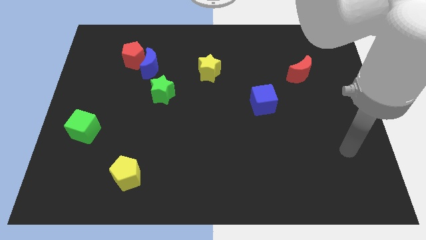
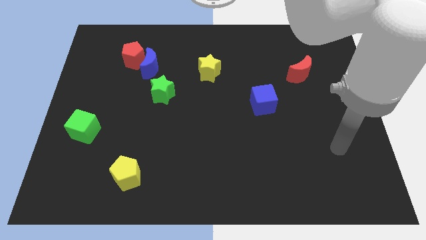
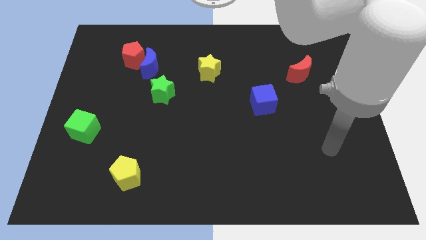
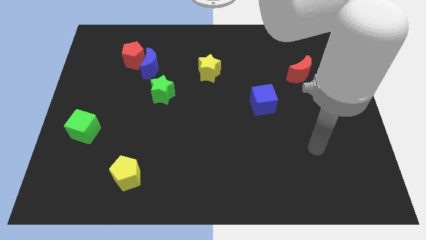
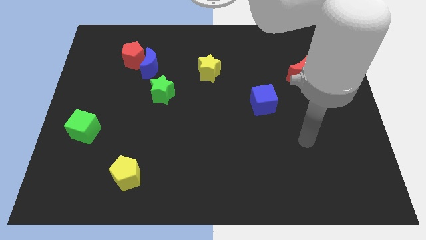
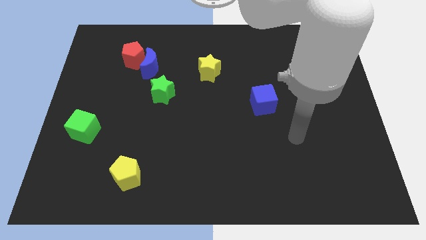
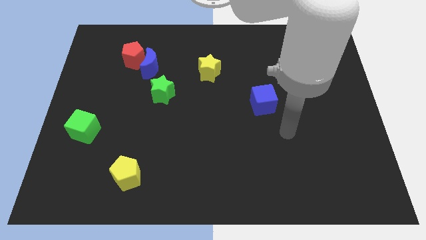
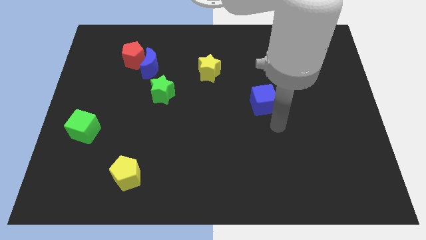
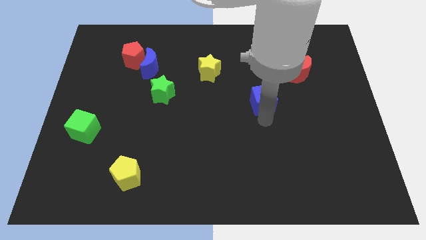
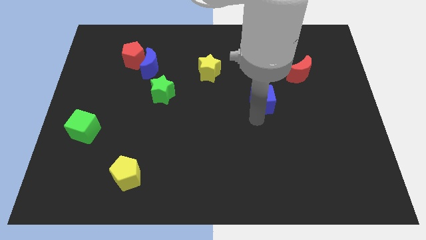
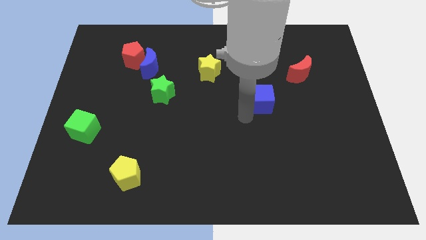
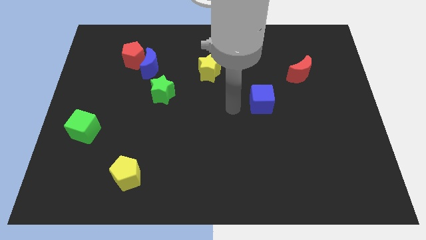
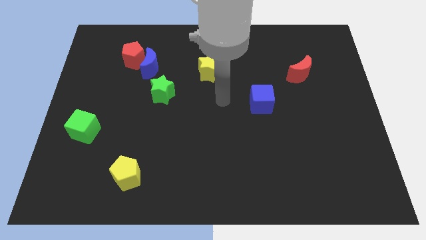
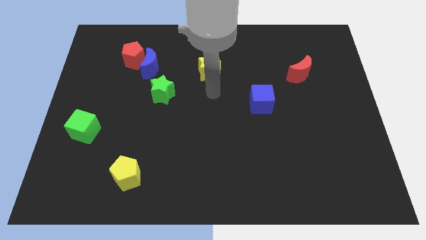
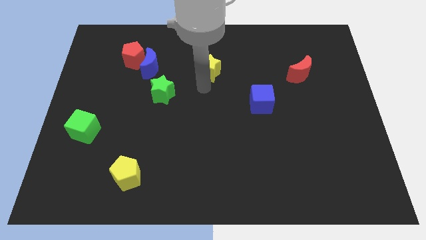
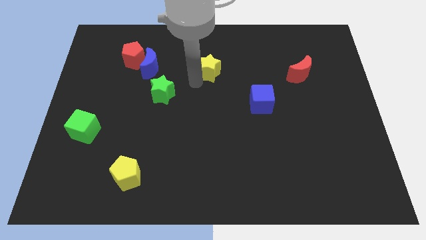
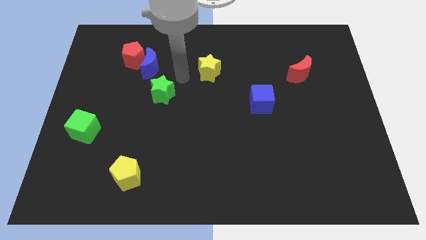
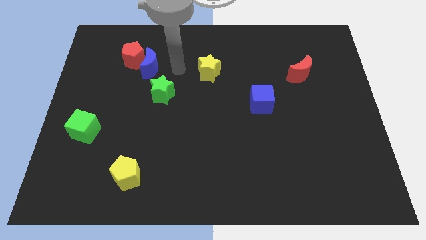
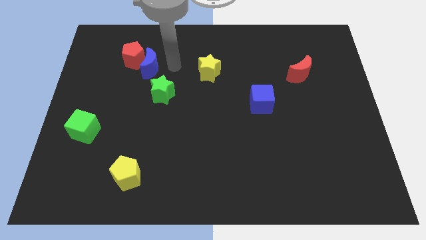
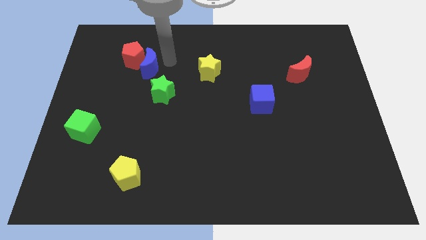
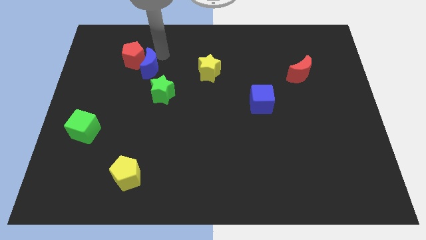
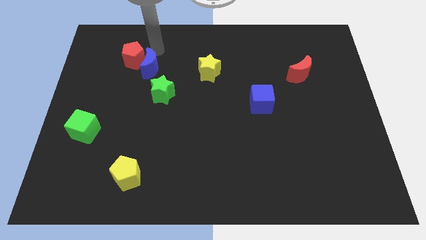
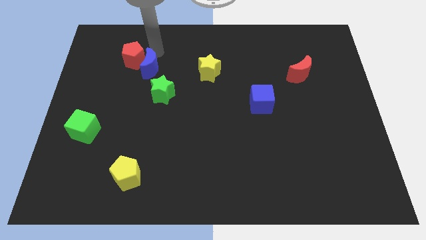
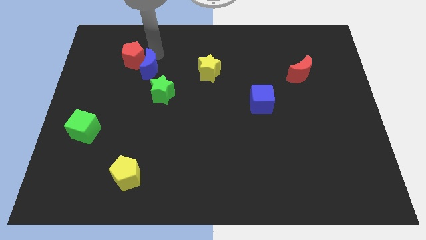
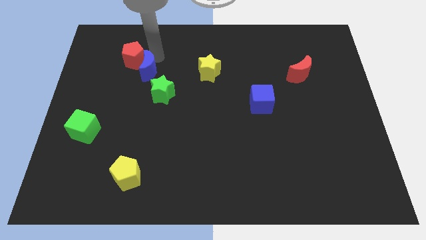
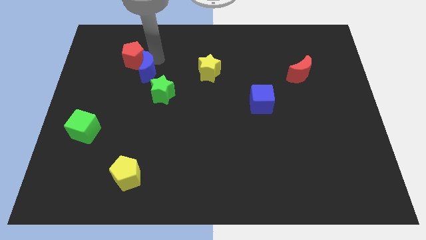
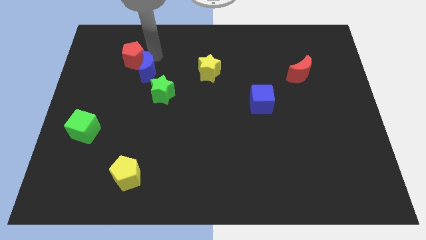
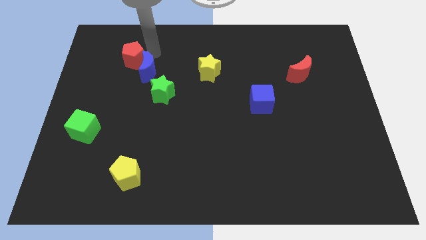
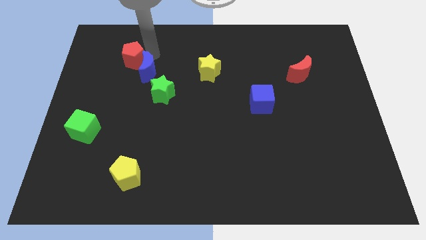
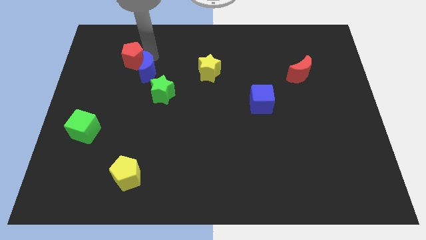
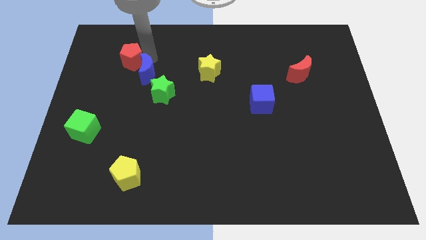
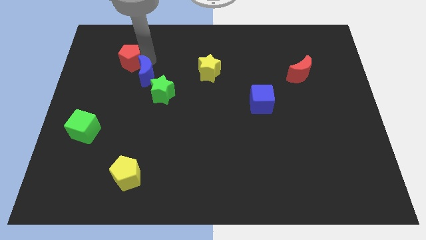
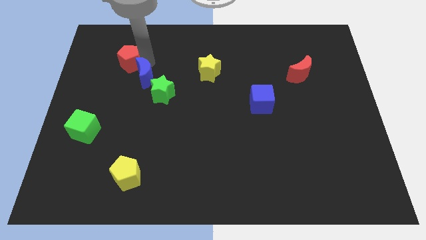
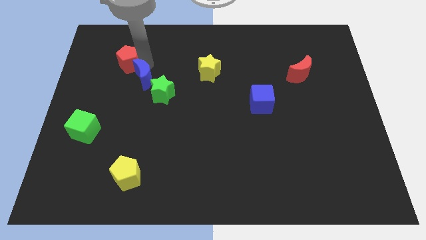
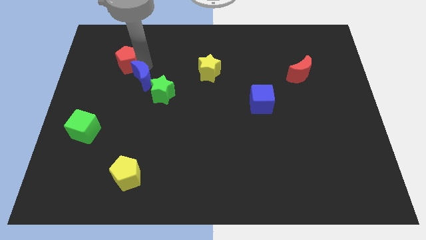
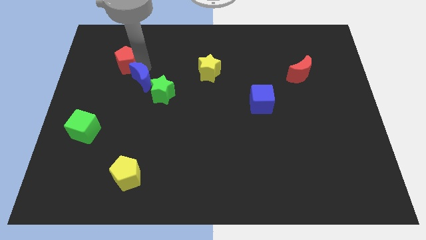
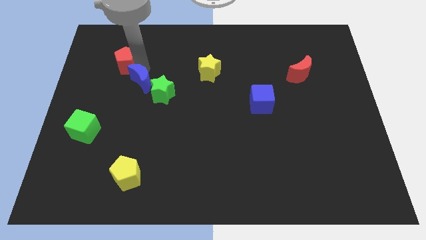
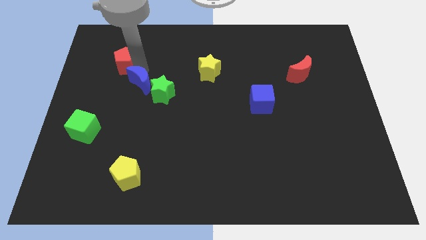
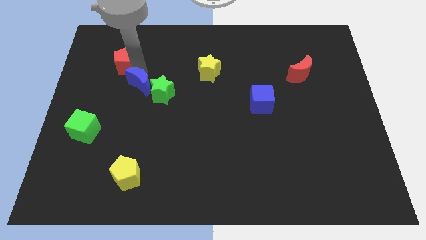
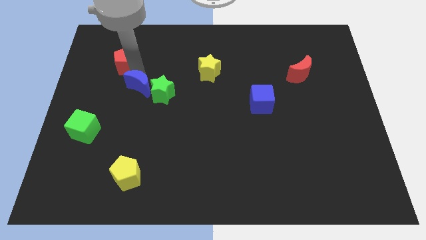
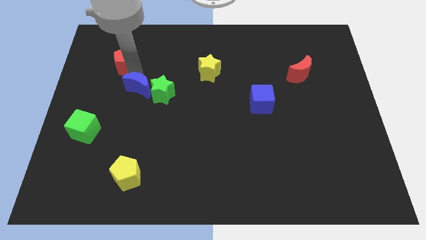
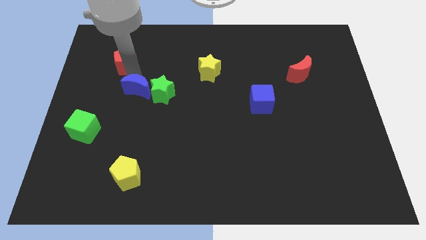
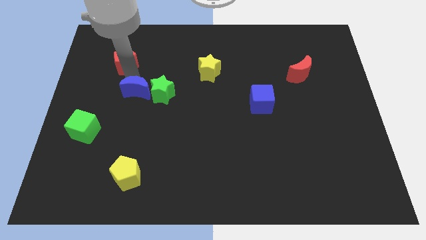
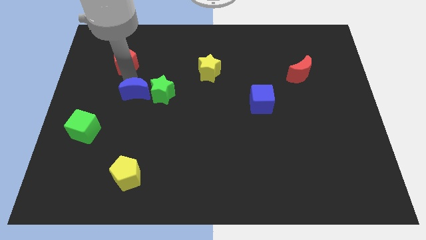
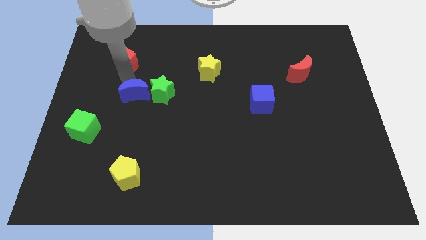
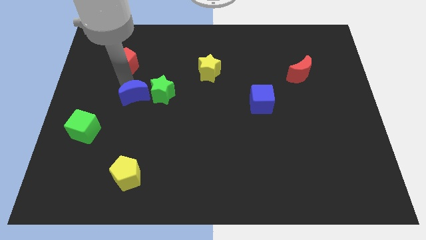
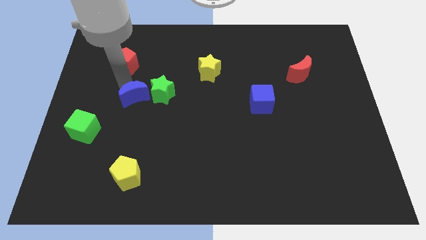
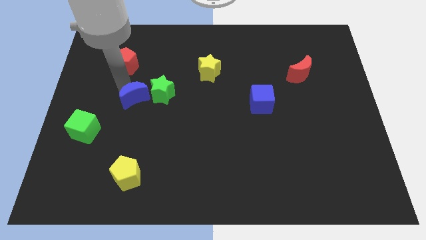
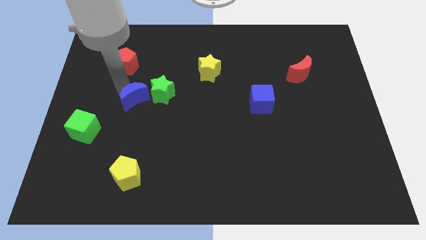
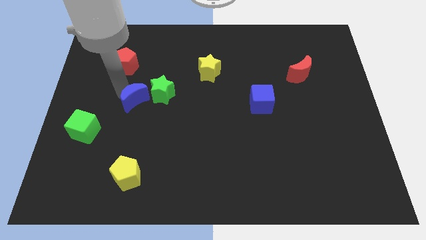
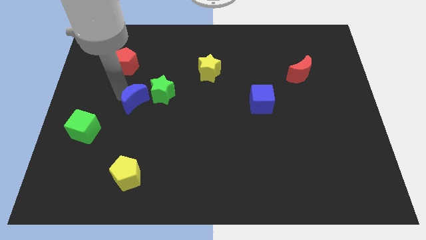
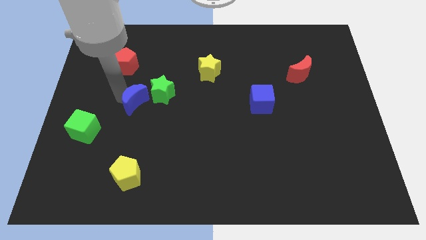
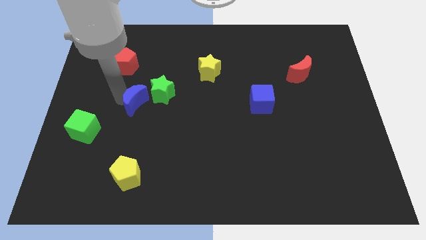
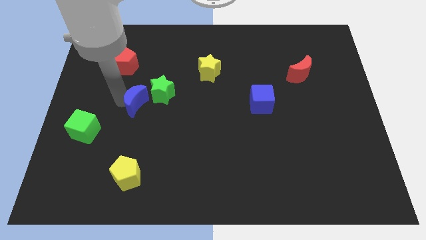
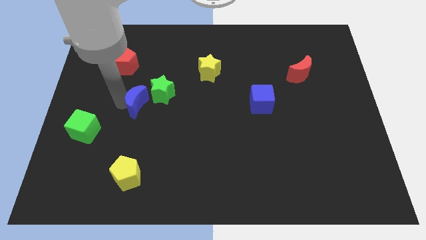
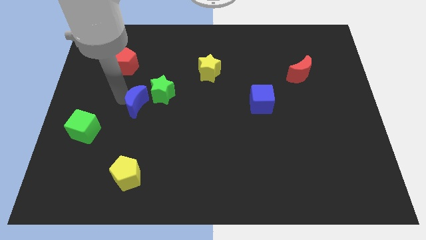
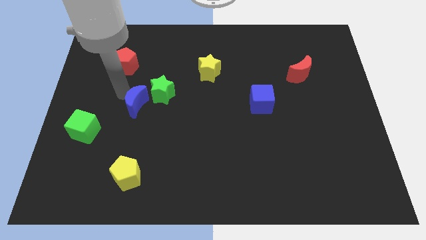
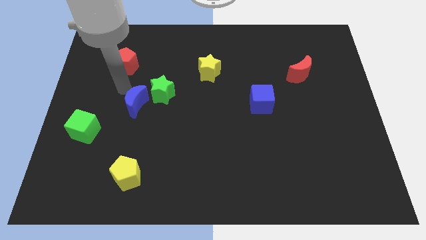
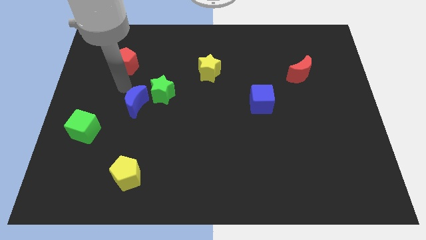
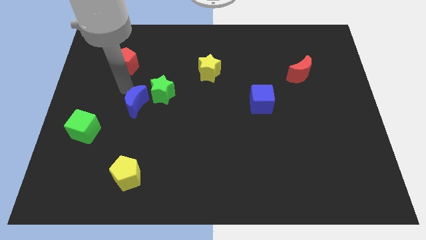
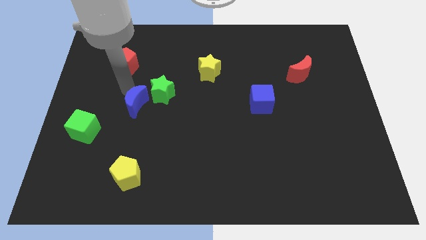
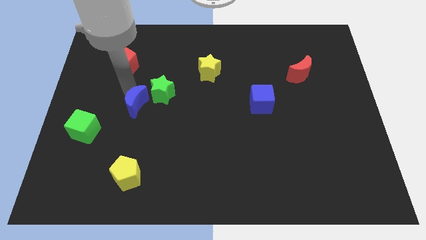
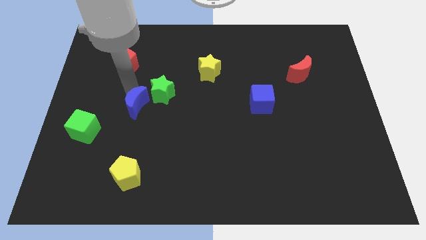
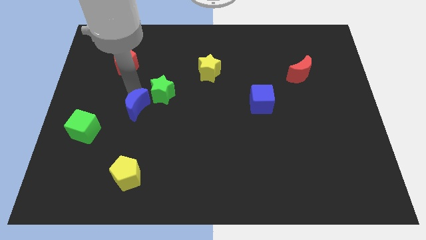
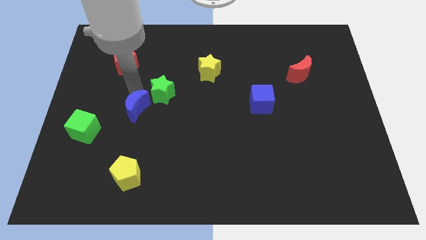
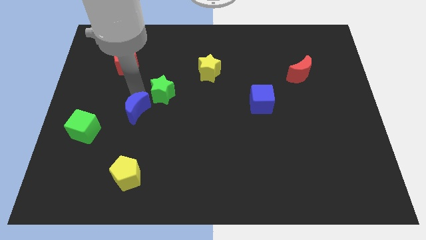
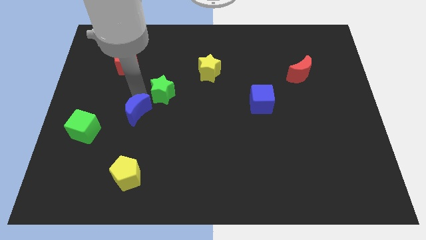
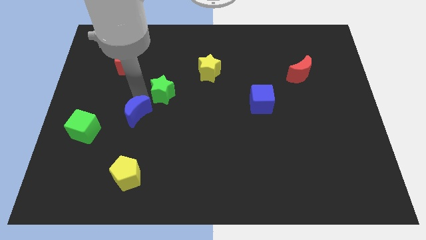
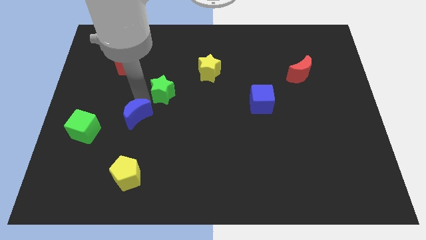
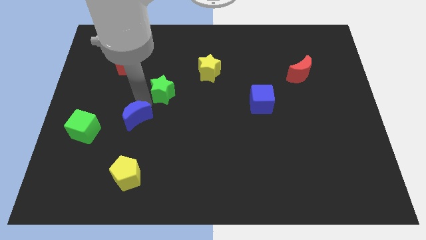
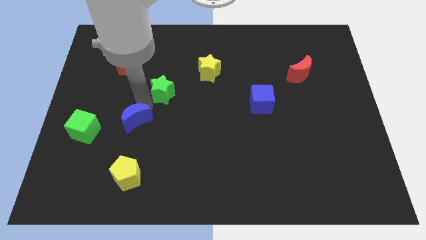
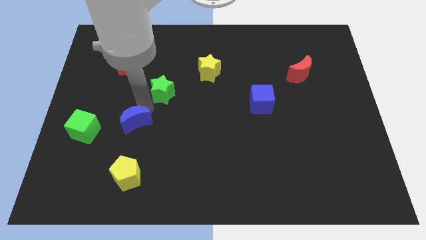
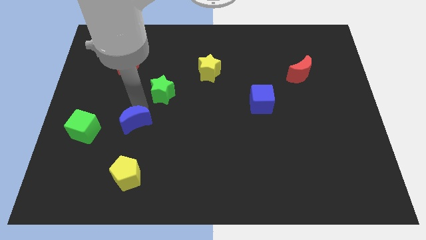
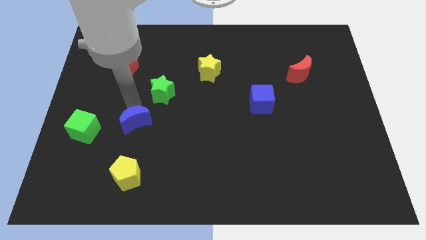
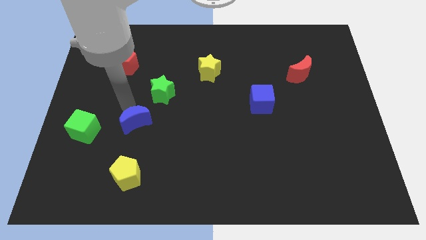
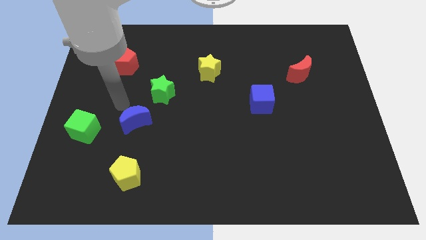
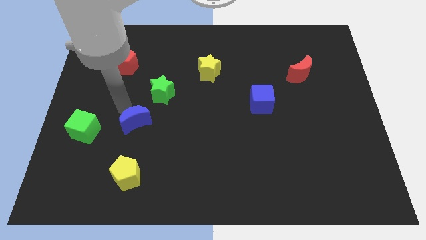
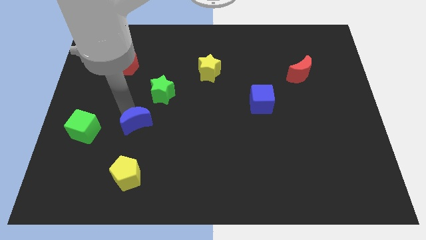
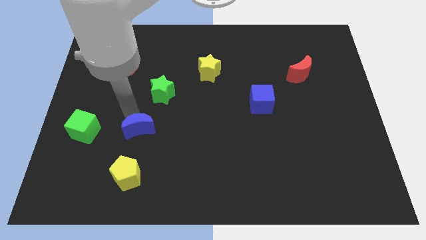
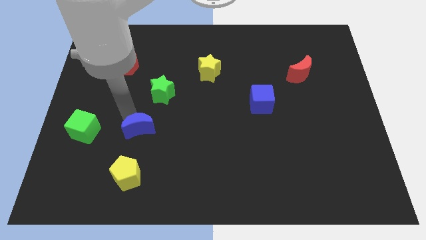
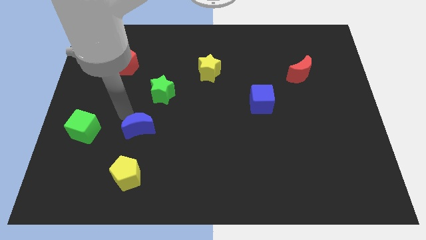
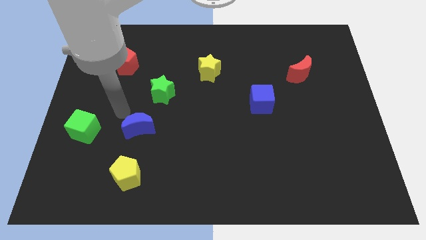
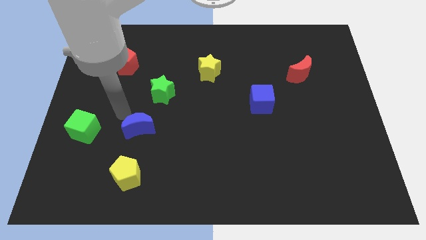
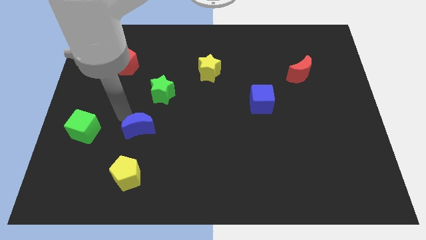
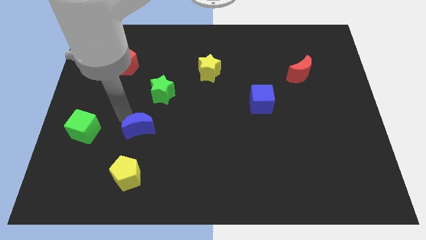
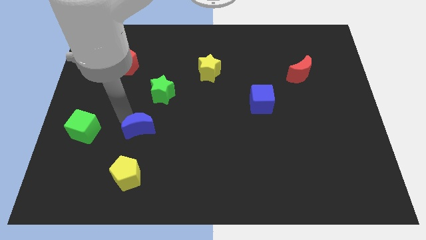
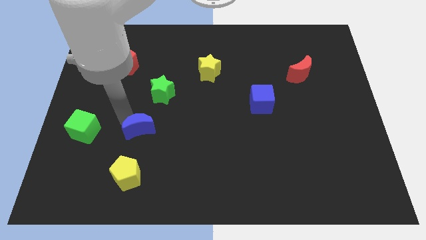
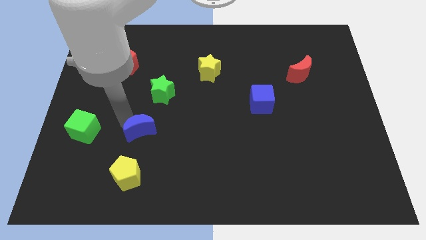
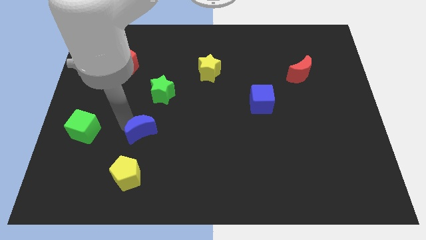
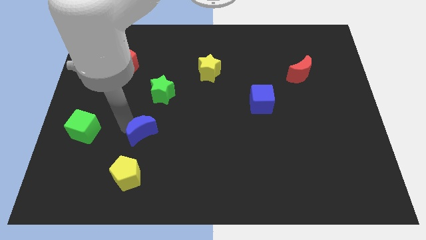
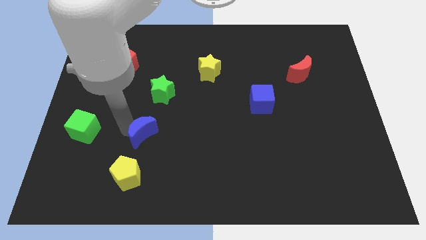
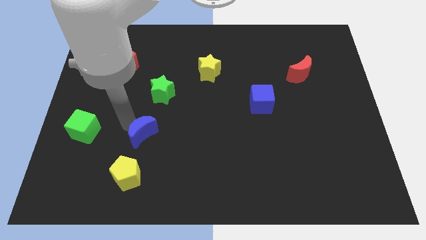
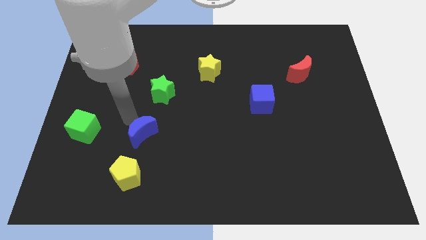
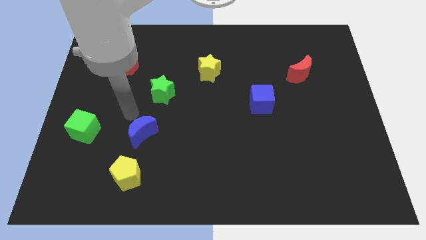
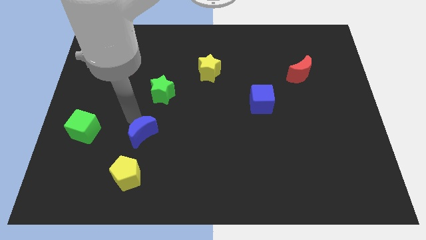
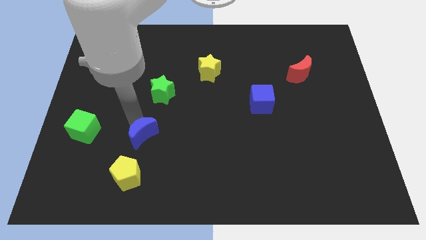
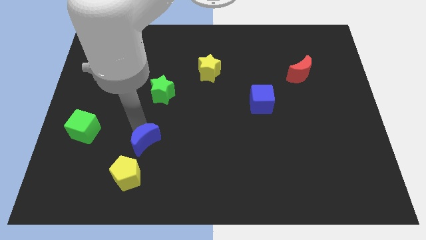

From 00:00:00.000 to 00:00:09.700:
move the blue moon to the top right of the yellow pentagon
